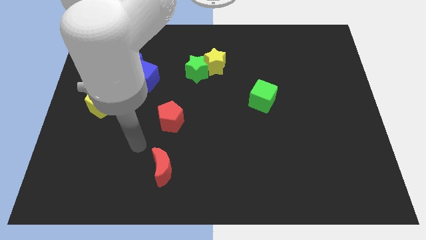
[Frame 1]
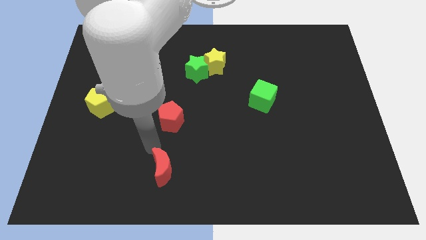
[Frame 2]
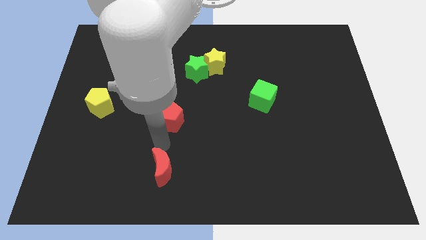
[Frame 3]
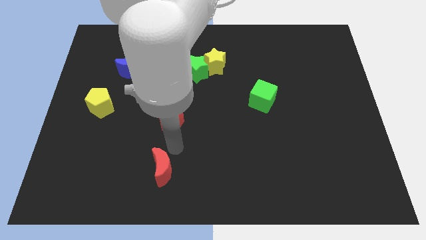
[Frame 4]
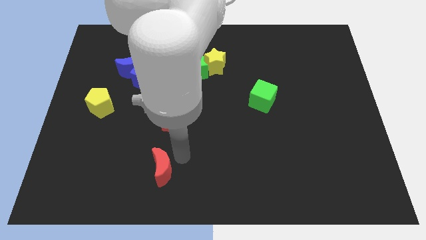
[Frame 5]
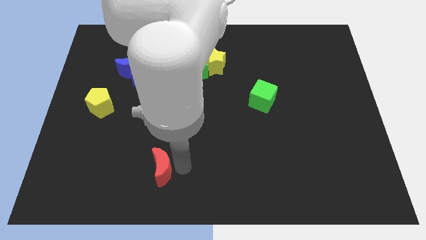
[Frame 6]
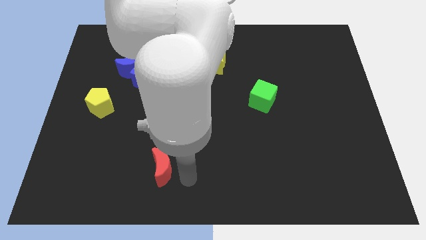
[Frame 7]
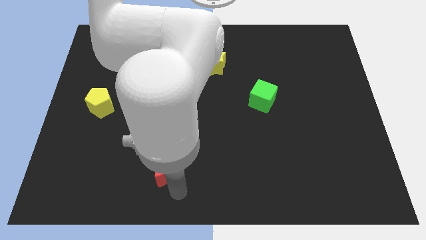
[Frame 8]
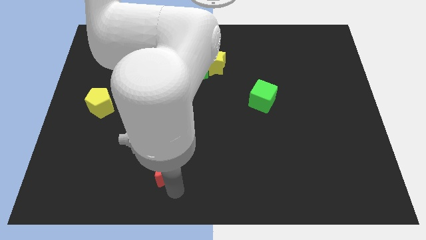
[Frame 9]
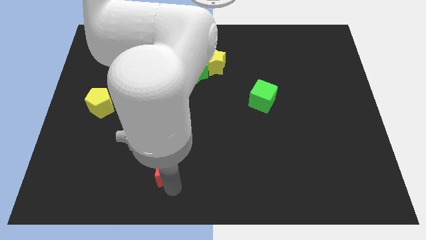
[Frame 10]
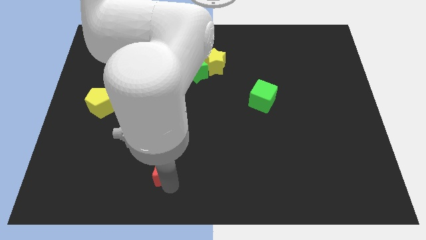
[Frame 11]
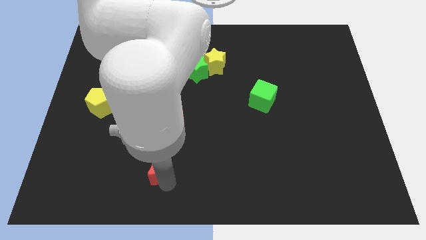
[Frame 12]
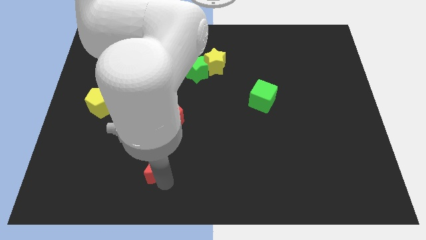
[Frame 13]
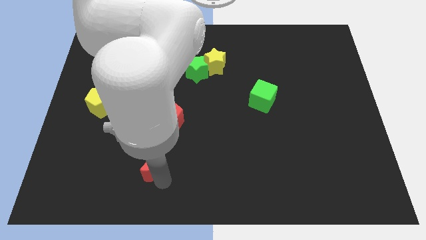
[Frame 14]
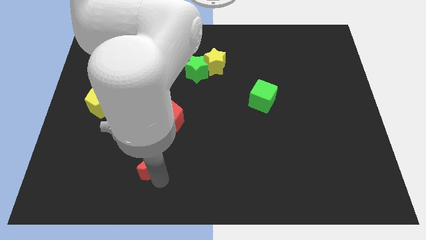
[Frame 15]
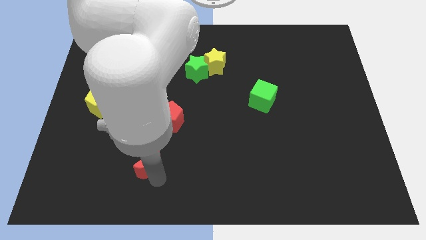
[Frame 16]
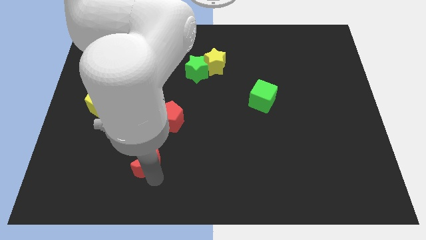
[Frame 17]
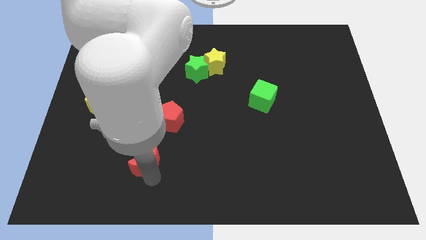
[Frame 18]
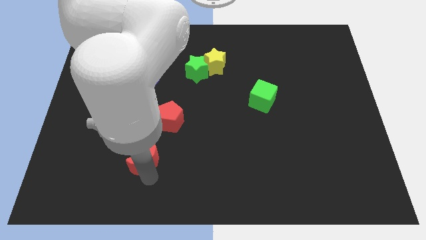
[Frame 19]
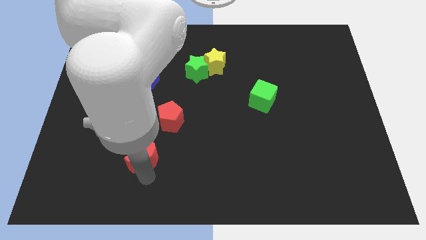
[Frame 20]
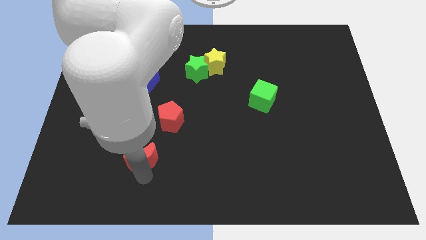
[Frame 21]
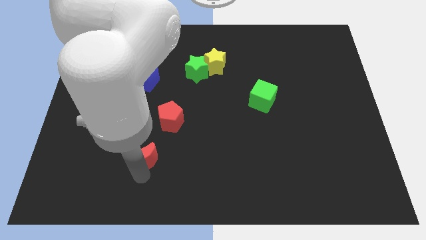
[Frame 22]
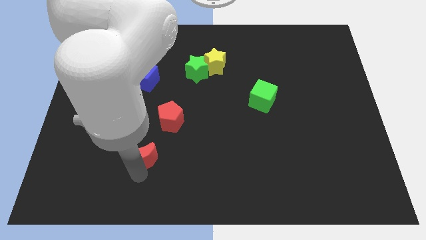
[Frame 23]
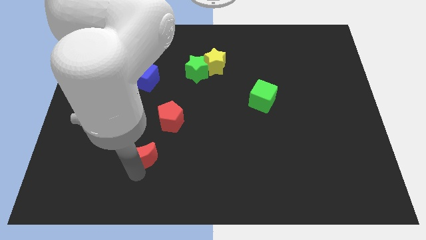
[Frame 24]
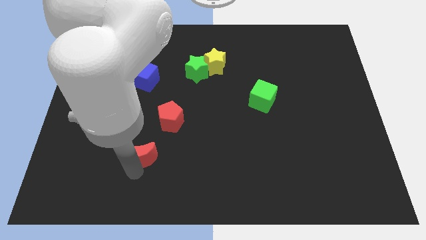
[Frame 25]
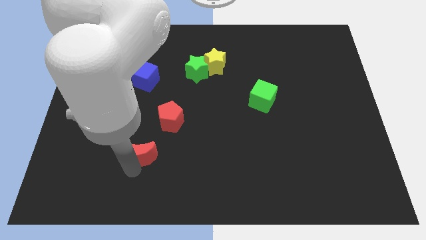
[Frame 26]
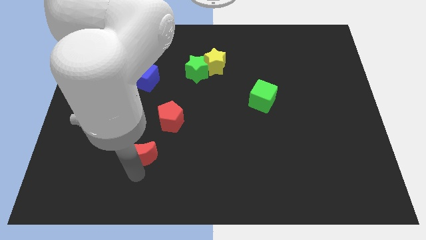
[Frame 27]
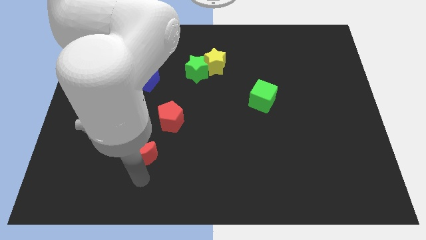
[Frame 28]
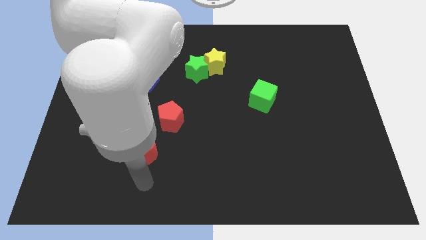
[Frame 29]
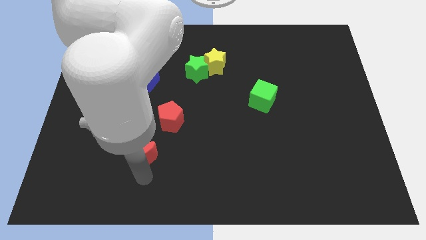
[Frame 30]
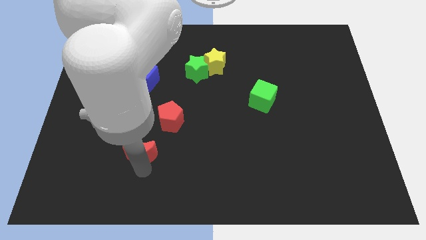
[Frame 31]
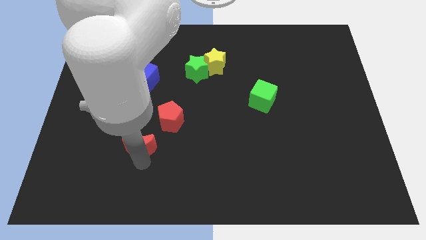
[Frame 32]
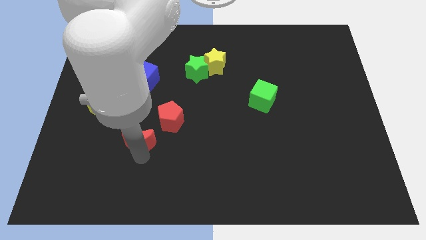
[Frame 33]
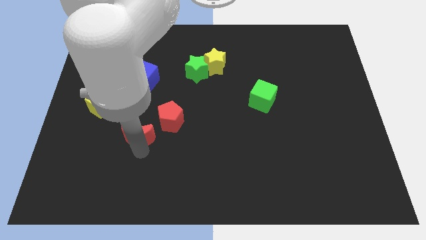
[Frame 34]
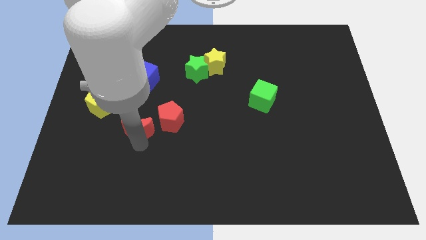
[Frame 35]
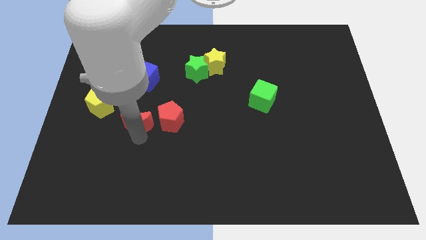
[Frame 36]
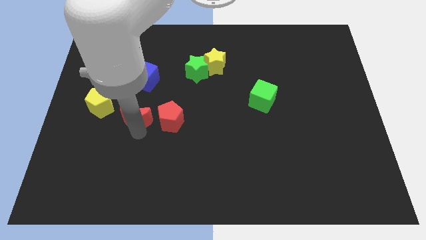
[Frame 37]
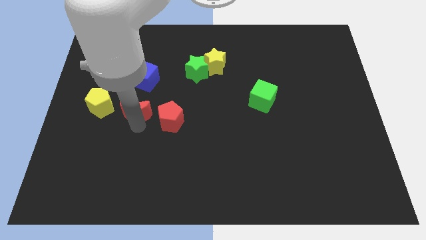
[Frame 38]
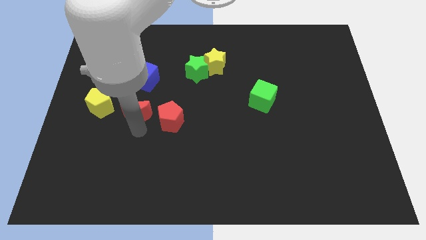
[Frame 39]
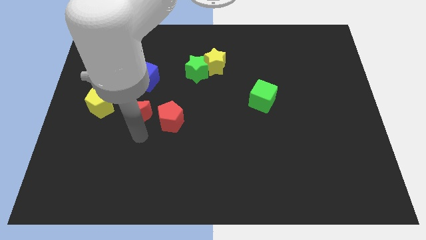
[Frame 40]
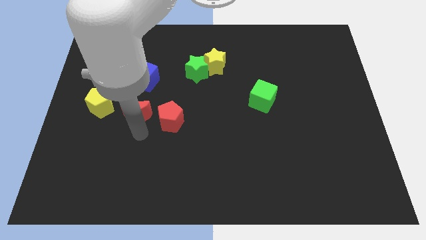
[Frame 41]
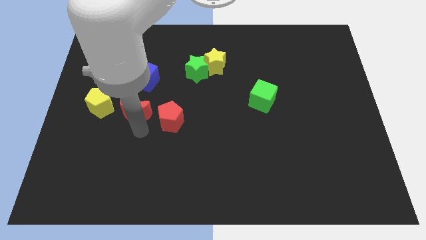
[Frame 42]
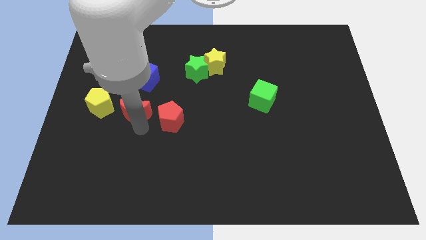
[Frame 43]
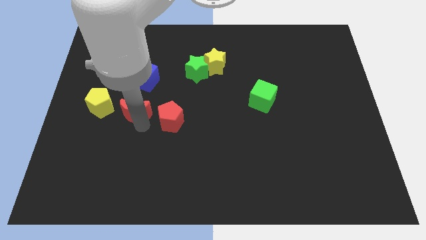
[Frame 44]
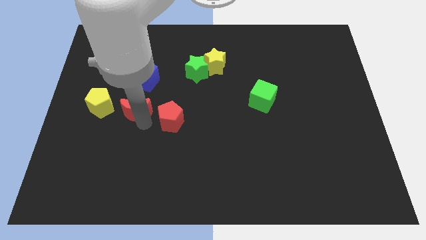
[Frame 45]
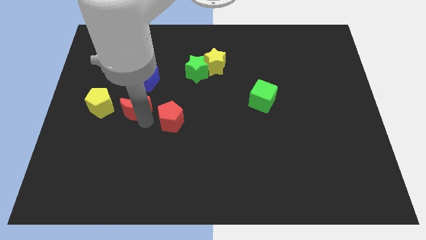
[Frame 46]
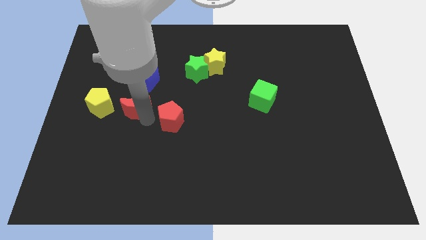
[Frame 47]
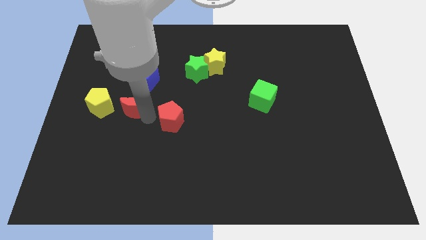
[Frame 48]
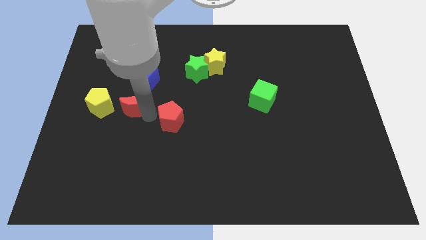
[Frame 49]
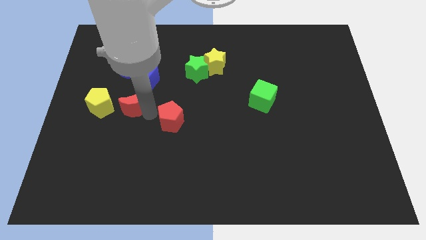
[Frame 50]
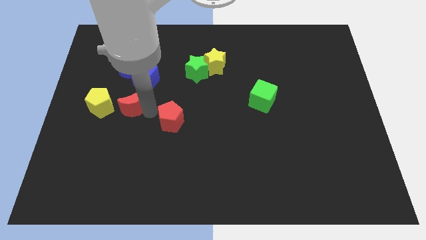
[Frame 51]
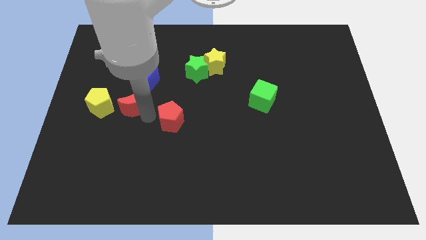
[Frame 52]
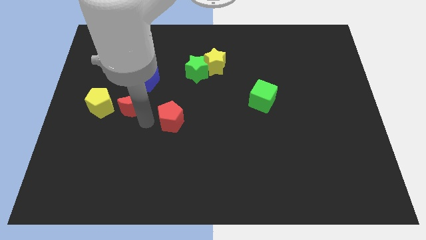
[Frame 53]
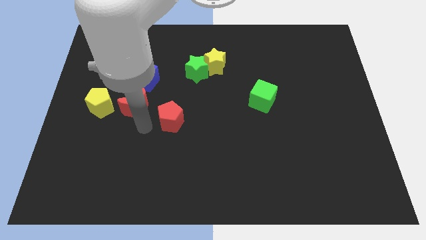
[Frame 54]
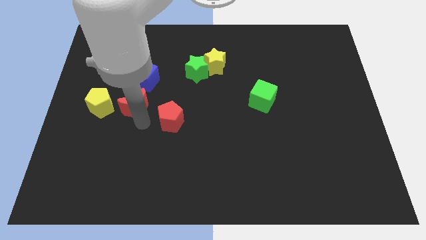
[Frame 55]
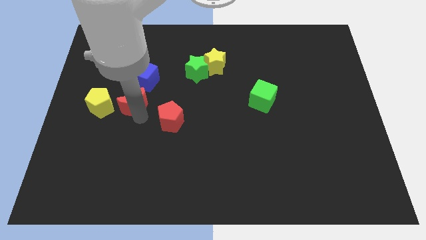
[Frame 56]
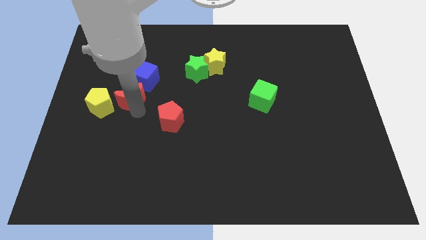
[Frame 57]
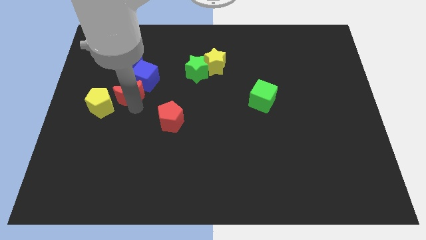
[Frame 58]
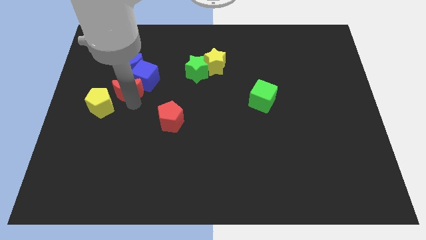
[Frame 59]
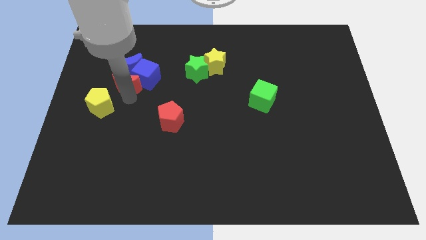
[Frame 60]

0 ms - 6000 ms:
put the red moon towards the blue moon

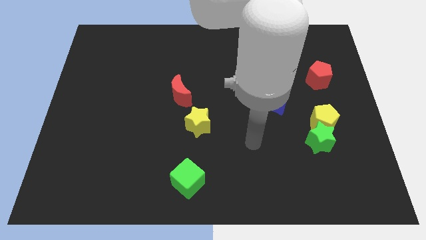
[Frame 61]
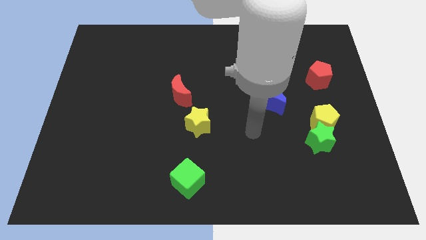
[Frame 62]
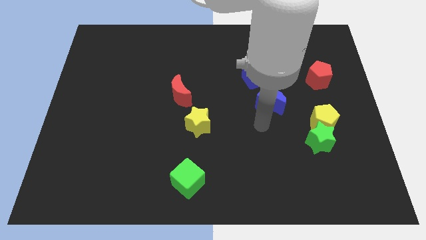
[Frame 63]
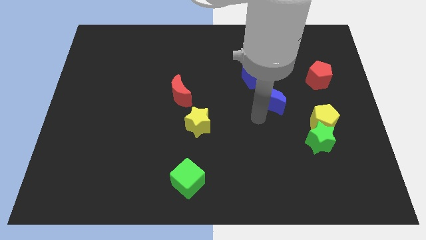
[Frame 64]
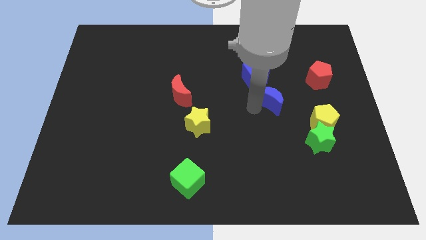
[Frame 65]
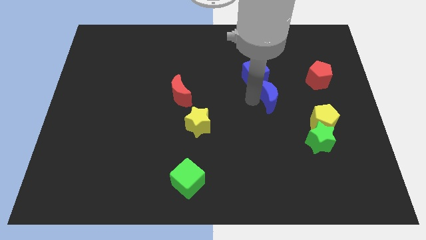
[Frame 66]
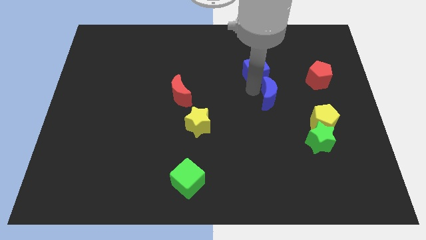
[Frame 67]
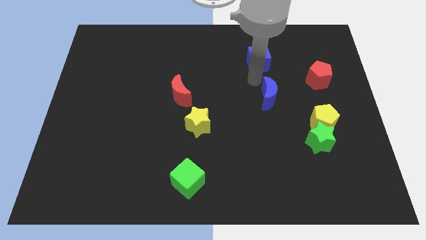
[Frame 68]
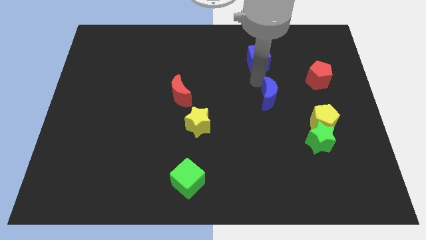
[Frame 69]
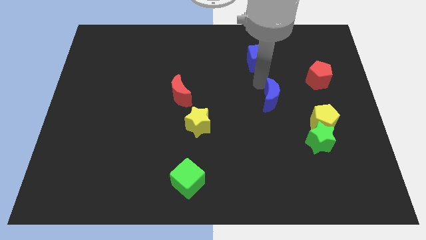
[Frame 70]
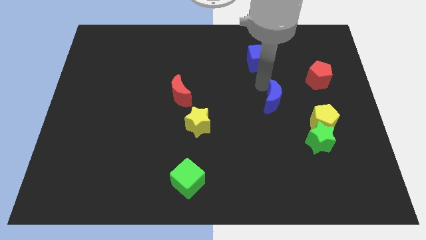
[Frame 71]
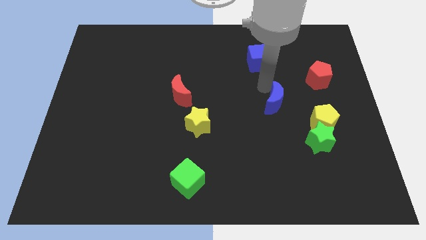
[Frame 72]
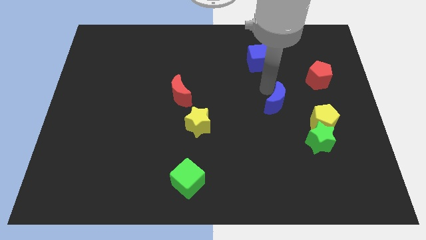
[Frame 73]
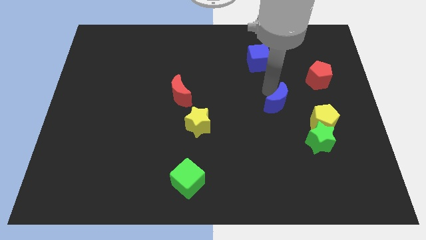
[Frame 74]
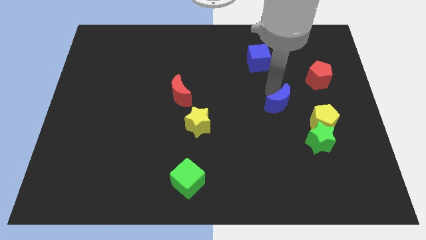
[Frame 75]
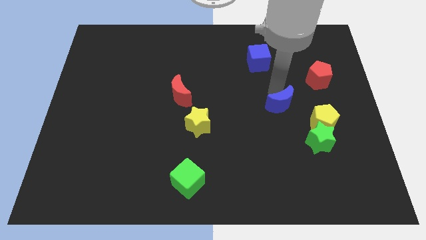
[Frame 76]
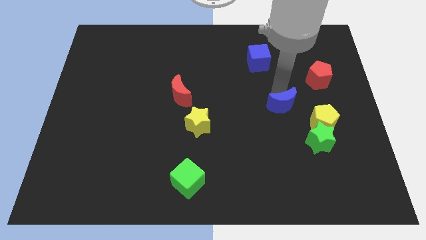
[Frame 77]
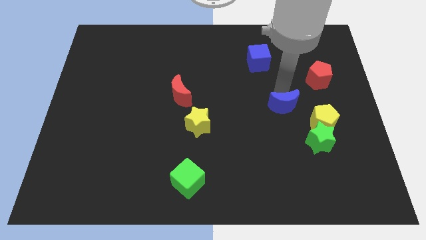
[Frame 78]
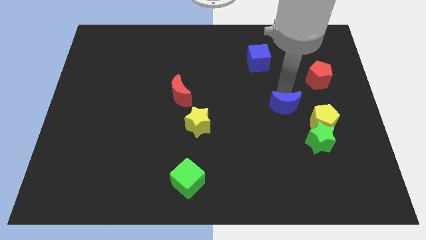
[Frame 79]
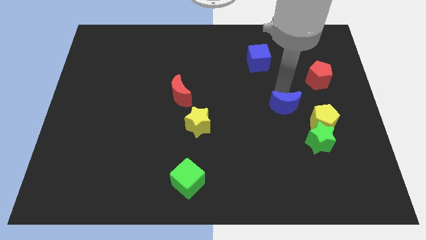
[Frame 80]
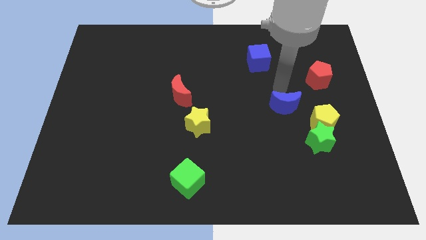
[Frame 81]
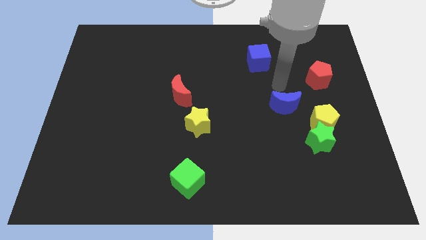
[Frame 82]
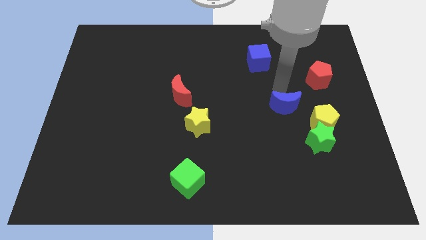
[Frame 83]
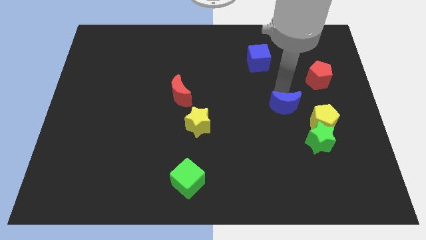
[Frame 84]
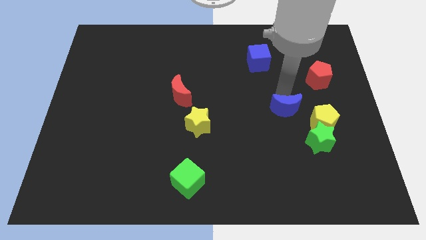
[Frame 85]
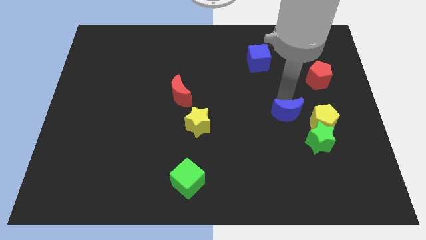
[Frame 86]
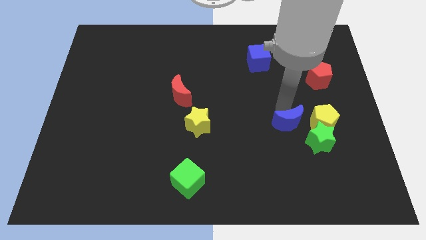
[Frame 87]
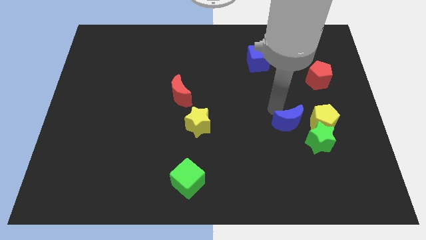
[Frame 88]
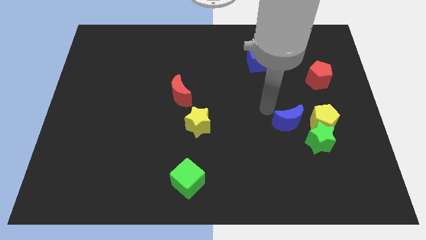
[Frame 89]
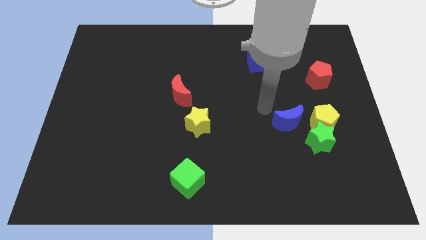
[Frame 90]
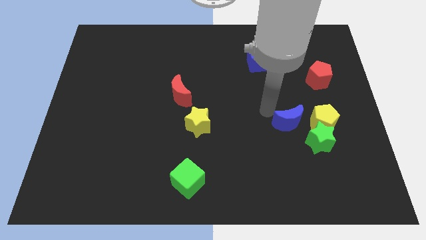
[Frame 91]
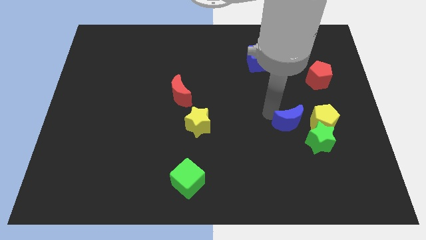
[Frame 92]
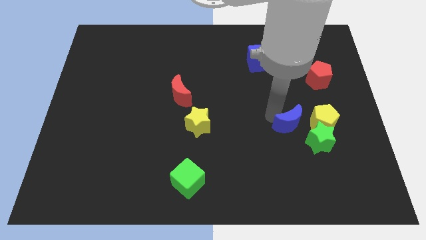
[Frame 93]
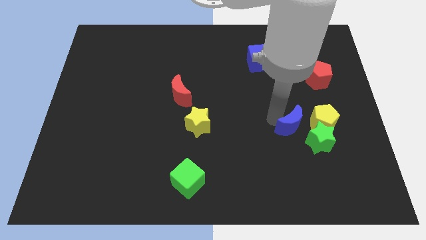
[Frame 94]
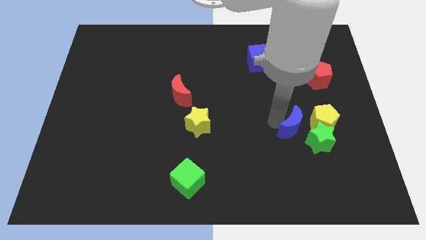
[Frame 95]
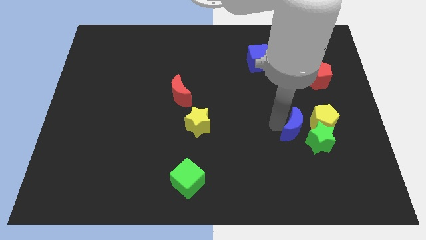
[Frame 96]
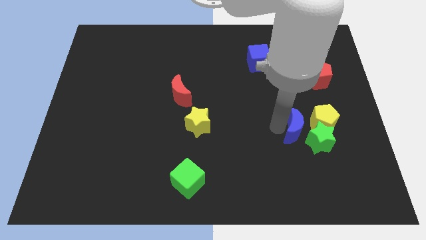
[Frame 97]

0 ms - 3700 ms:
push the blue moon close to the green star
